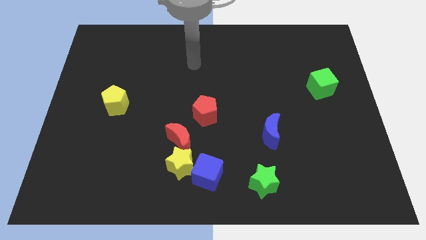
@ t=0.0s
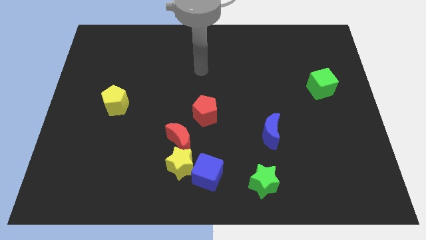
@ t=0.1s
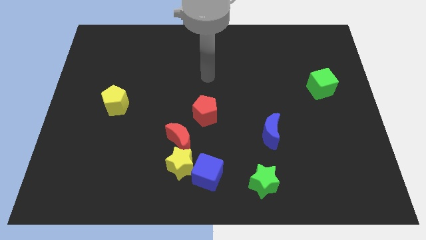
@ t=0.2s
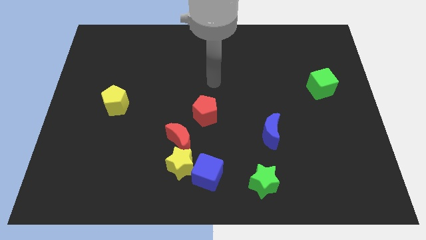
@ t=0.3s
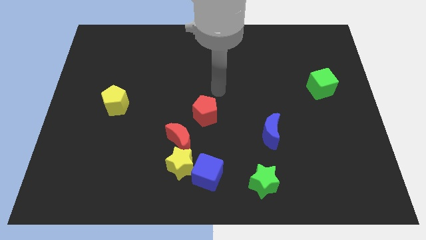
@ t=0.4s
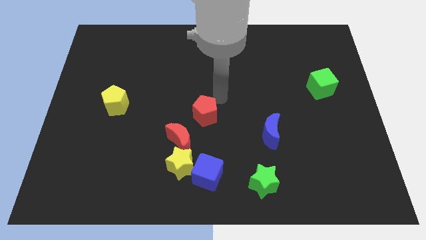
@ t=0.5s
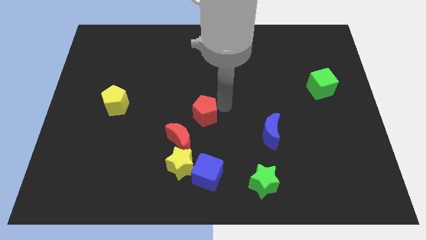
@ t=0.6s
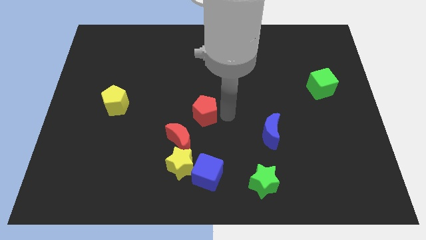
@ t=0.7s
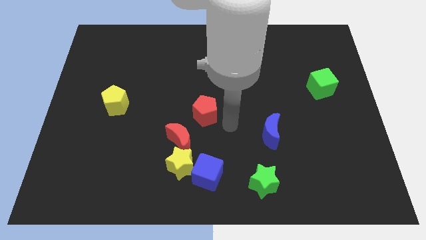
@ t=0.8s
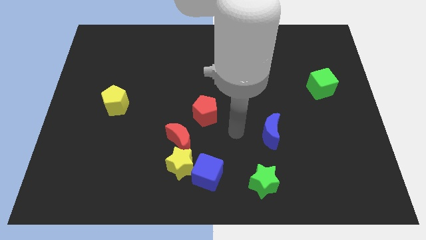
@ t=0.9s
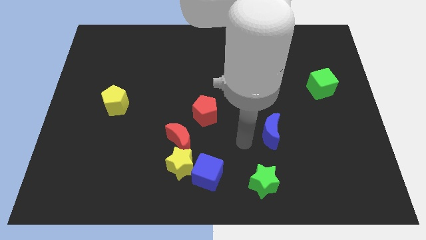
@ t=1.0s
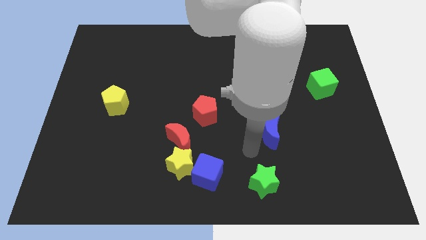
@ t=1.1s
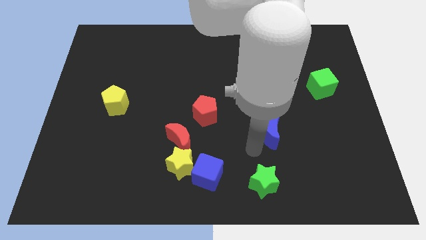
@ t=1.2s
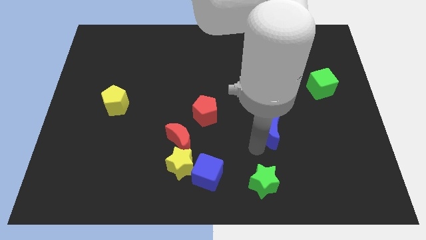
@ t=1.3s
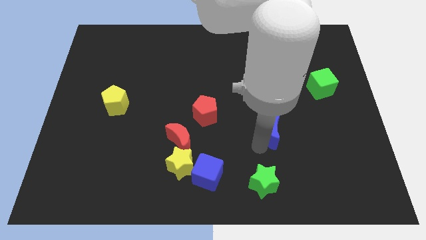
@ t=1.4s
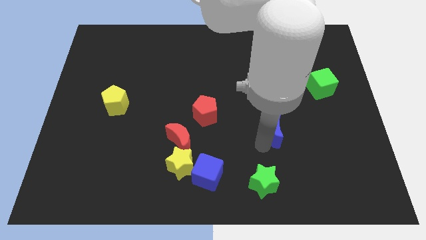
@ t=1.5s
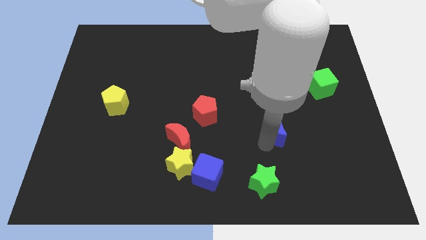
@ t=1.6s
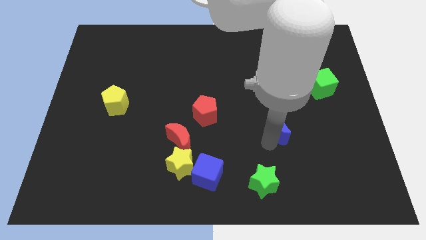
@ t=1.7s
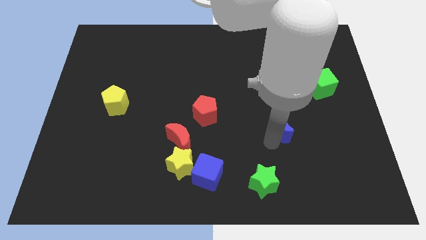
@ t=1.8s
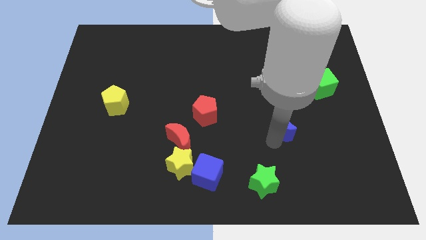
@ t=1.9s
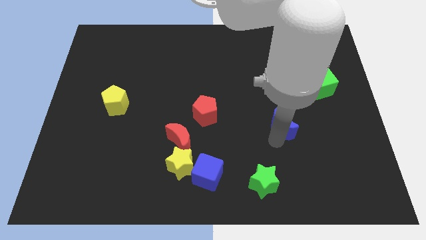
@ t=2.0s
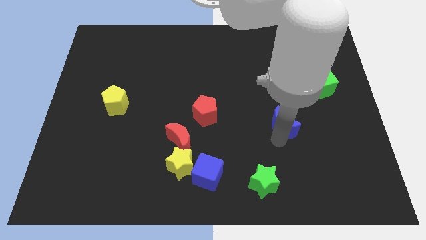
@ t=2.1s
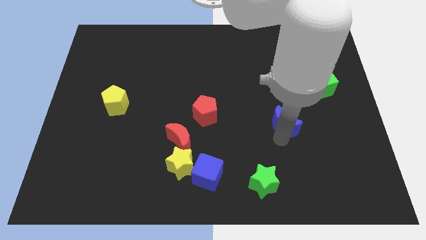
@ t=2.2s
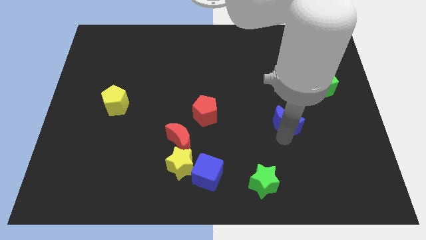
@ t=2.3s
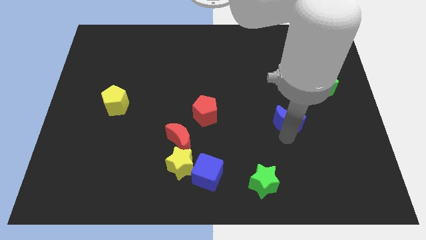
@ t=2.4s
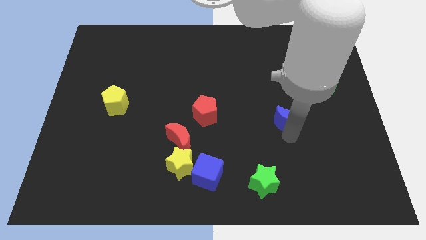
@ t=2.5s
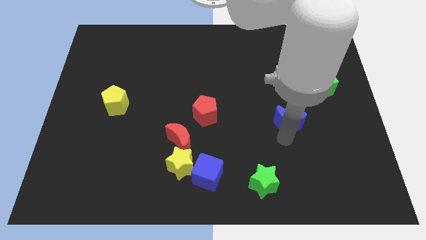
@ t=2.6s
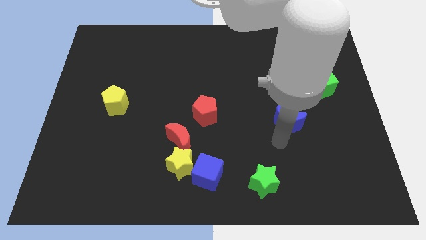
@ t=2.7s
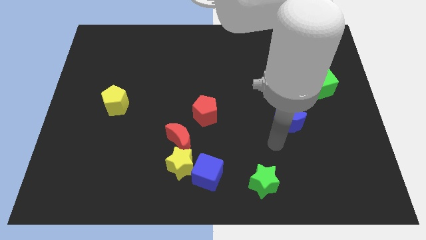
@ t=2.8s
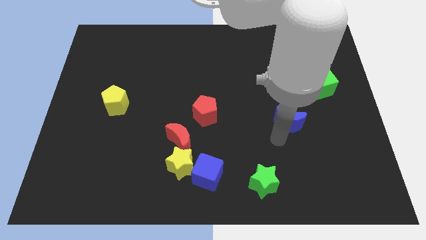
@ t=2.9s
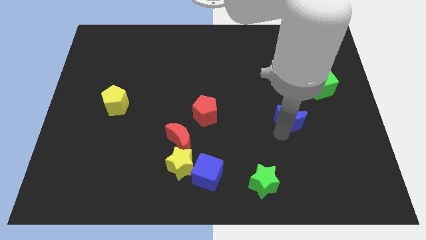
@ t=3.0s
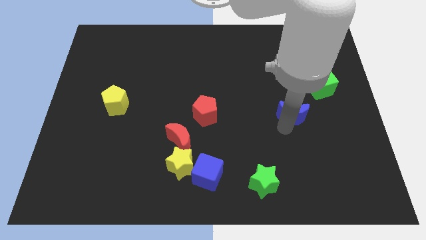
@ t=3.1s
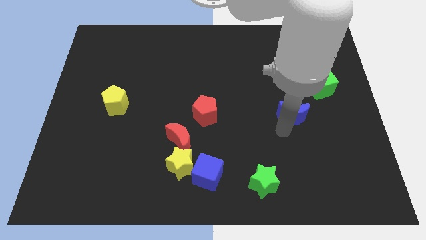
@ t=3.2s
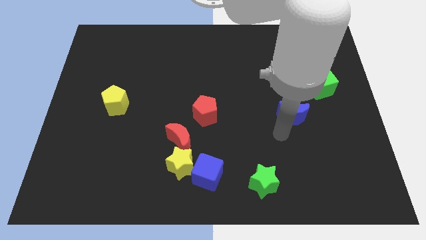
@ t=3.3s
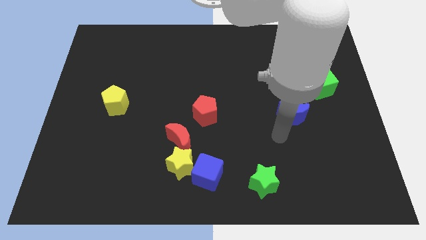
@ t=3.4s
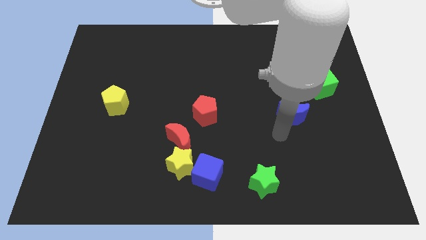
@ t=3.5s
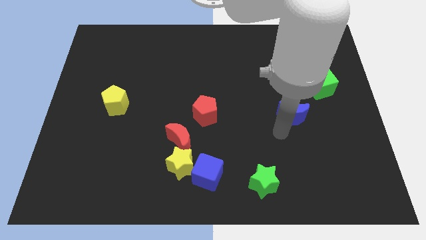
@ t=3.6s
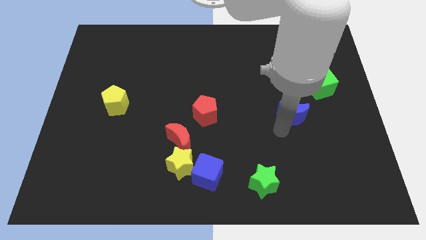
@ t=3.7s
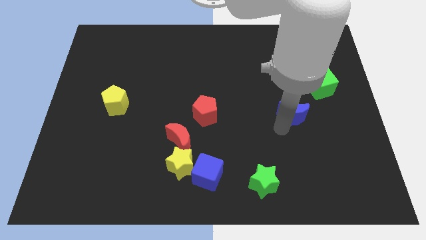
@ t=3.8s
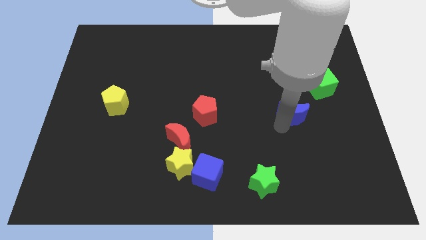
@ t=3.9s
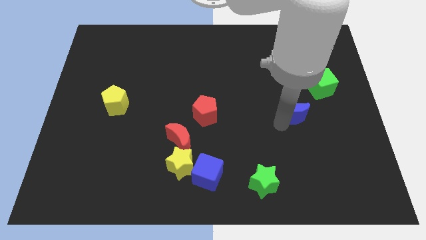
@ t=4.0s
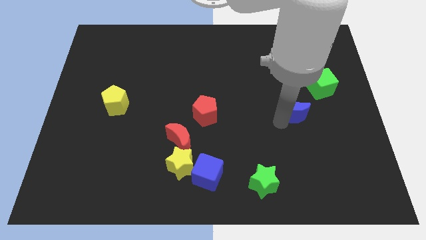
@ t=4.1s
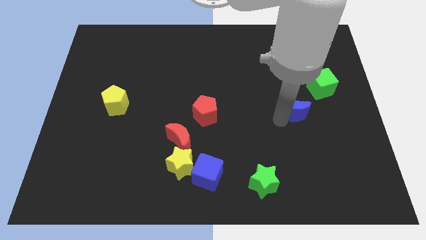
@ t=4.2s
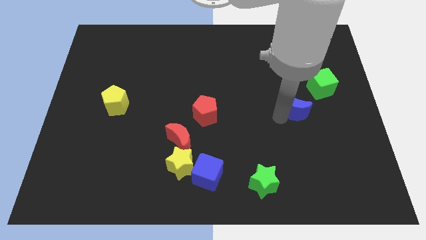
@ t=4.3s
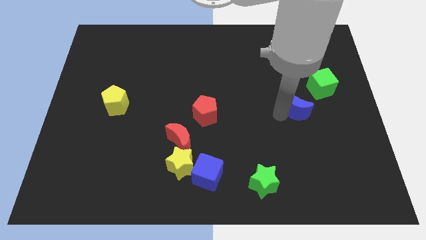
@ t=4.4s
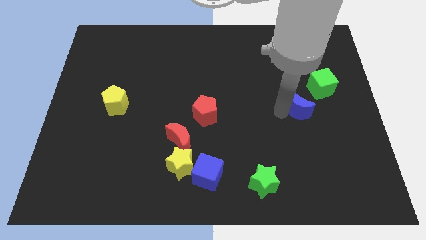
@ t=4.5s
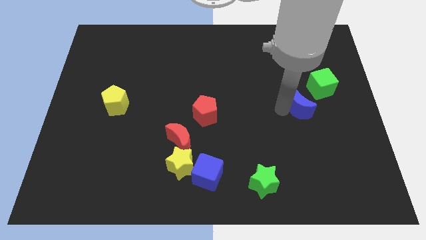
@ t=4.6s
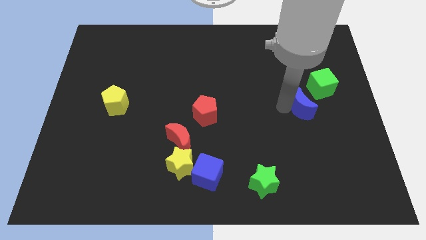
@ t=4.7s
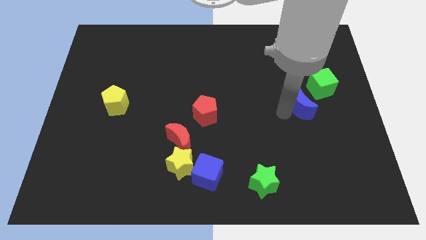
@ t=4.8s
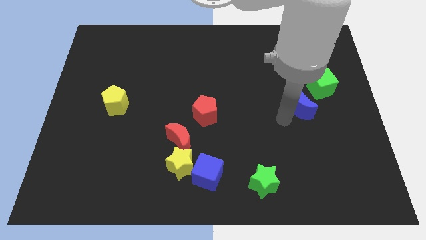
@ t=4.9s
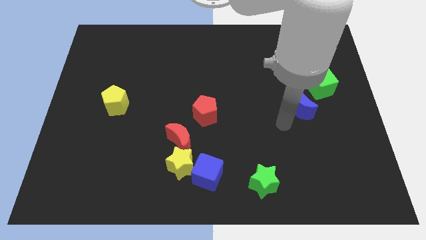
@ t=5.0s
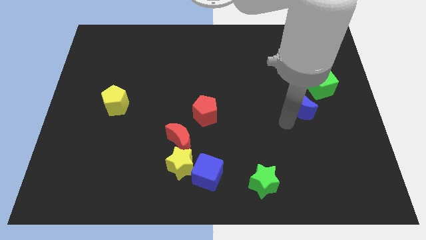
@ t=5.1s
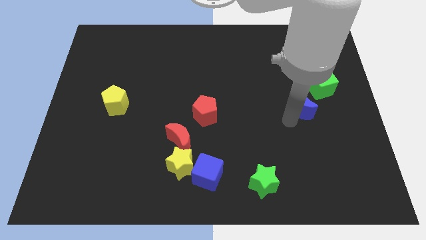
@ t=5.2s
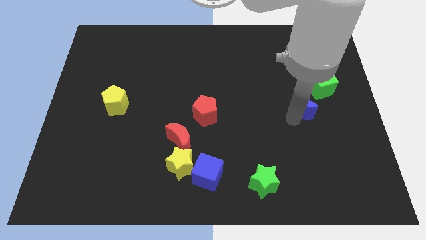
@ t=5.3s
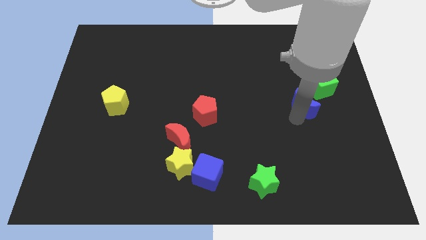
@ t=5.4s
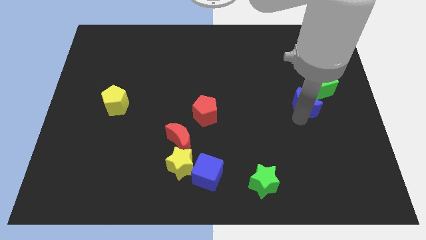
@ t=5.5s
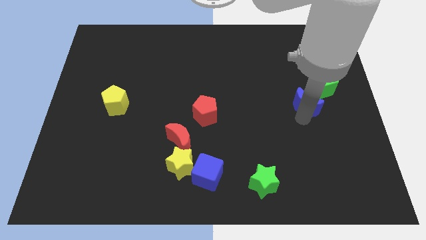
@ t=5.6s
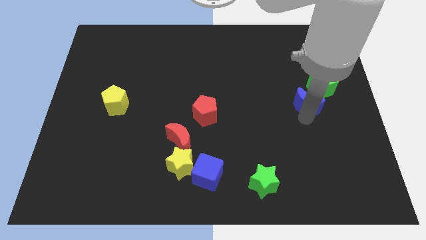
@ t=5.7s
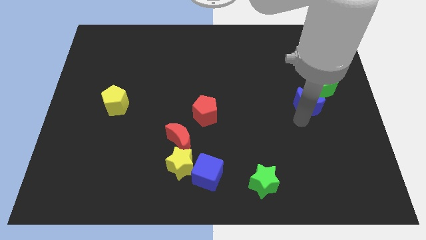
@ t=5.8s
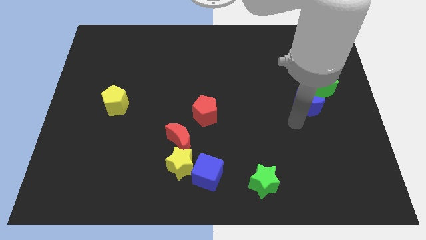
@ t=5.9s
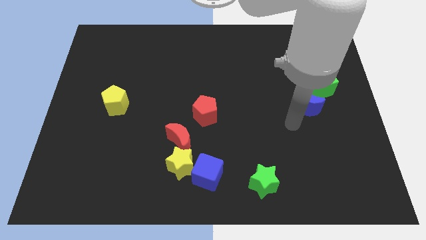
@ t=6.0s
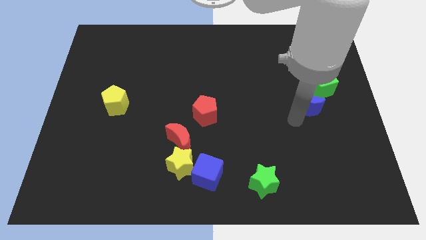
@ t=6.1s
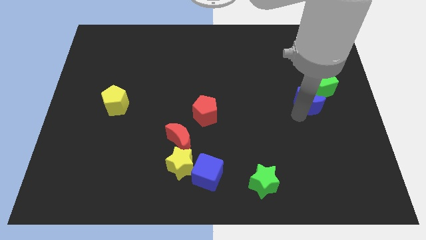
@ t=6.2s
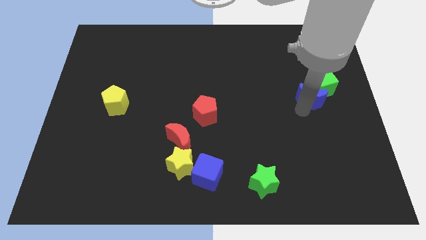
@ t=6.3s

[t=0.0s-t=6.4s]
push the blue moon close to the green cube

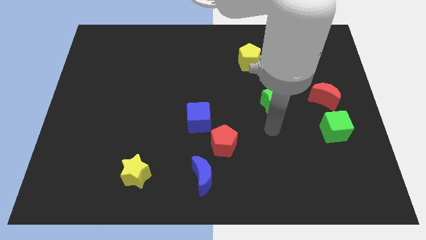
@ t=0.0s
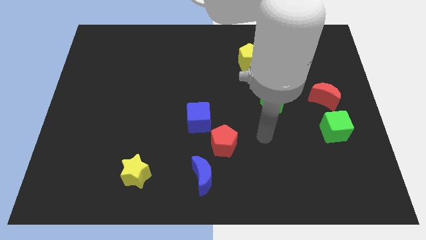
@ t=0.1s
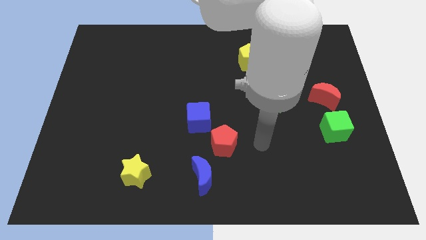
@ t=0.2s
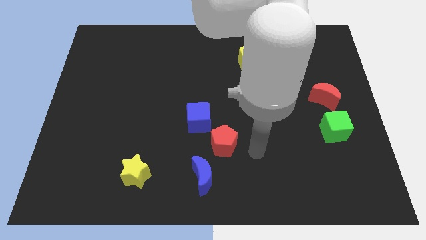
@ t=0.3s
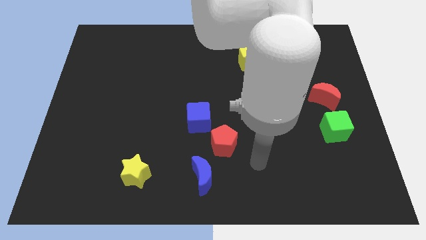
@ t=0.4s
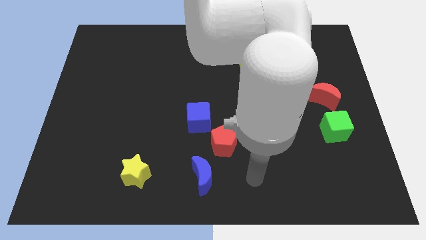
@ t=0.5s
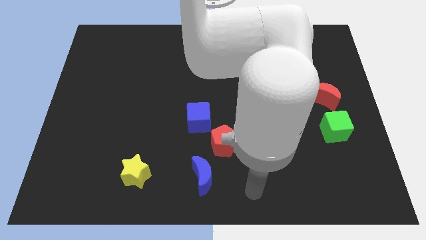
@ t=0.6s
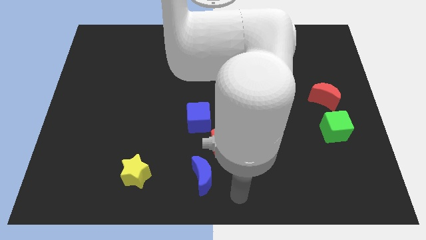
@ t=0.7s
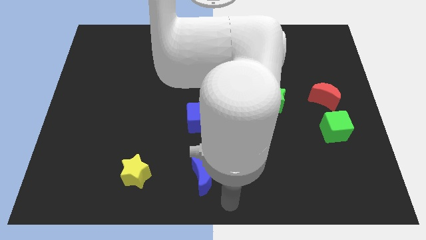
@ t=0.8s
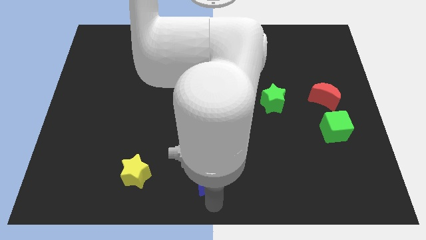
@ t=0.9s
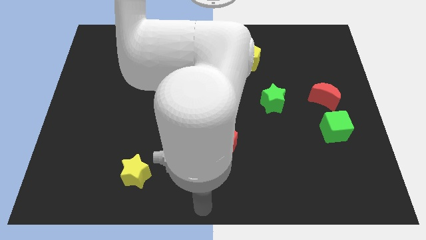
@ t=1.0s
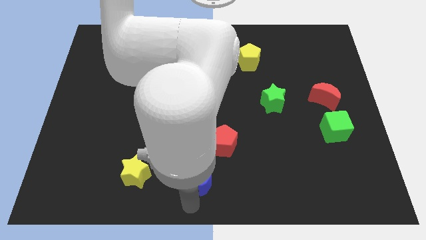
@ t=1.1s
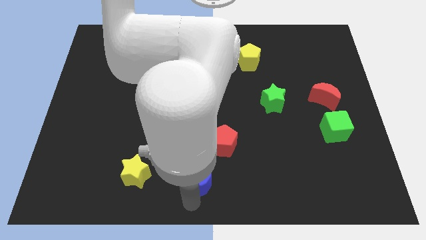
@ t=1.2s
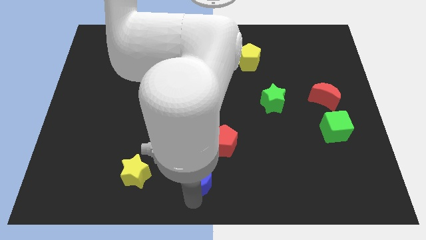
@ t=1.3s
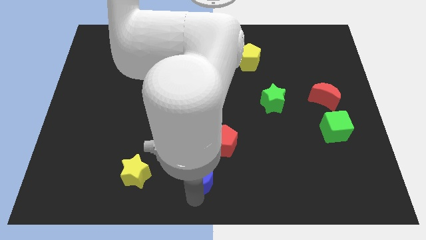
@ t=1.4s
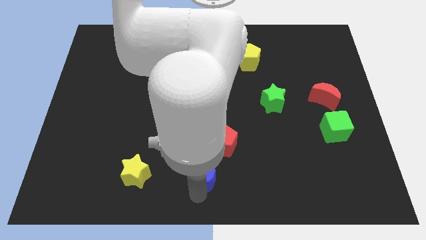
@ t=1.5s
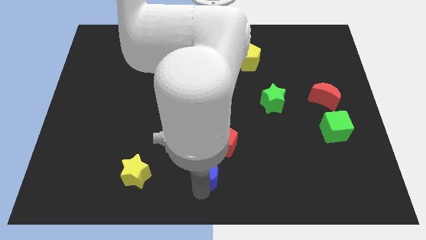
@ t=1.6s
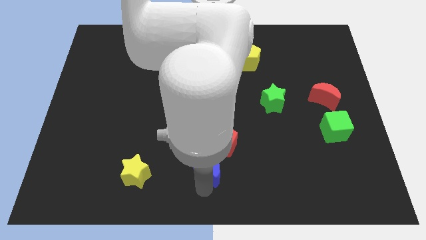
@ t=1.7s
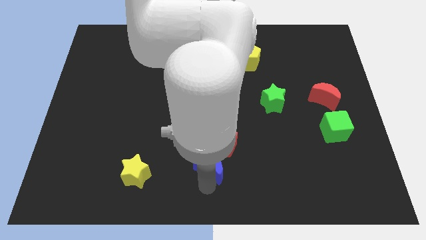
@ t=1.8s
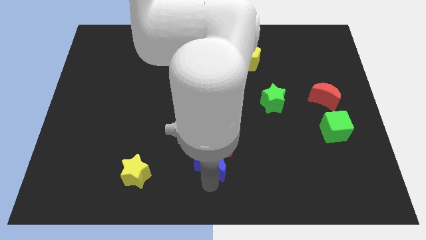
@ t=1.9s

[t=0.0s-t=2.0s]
slide the blue moon towards the red pentagon
